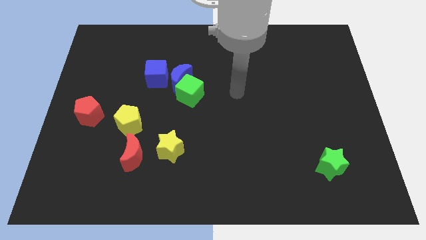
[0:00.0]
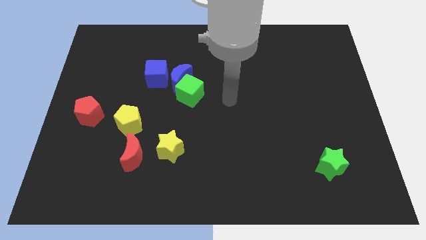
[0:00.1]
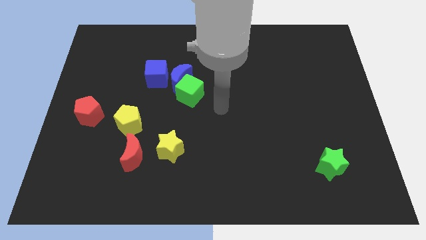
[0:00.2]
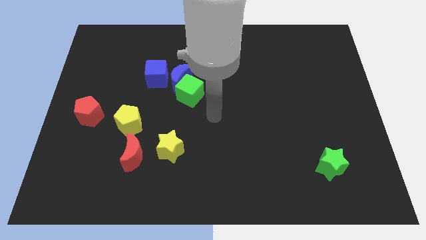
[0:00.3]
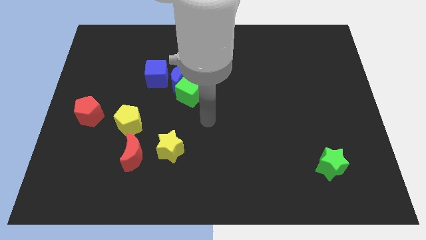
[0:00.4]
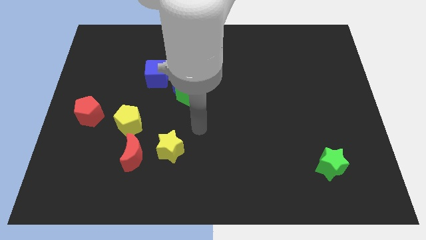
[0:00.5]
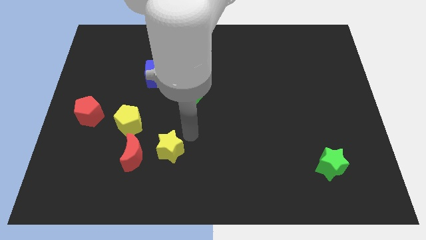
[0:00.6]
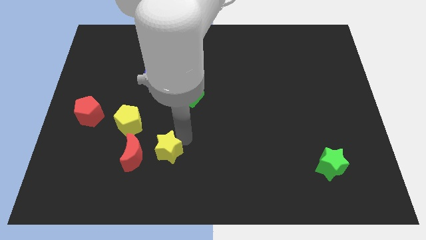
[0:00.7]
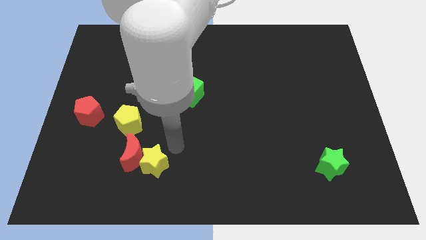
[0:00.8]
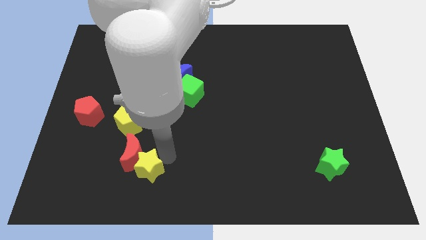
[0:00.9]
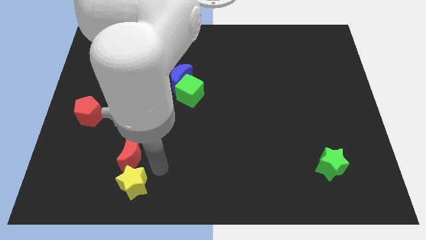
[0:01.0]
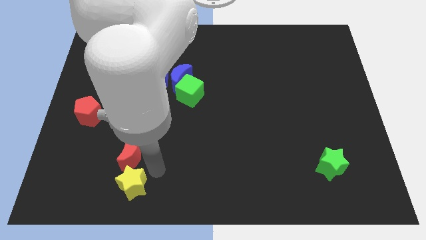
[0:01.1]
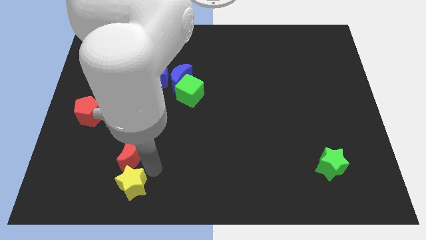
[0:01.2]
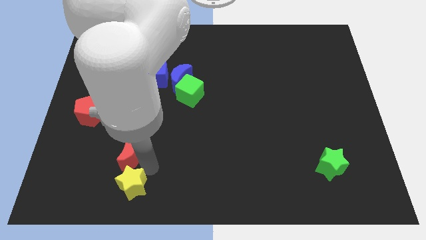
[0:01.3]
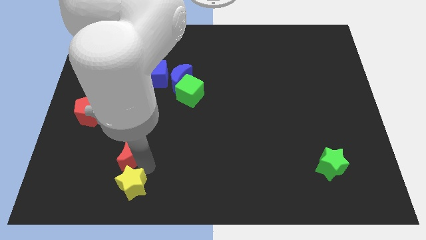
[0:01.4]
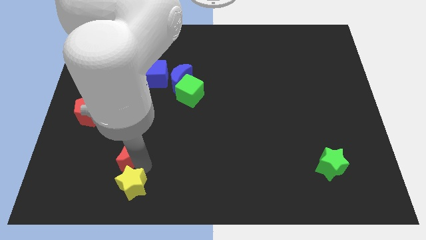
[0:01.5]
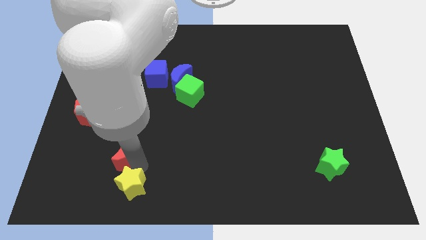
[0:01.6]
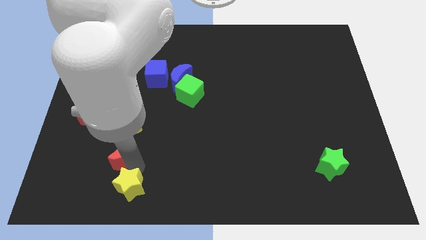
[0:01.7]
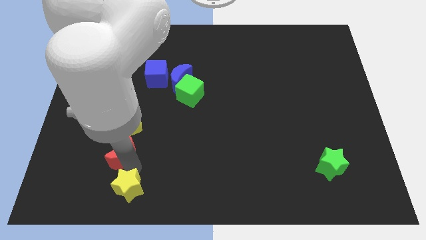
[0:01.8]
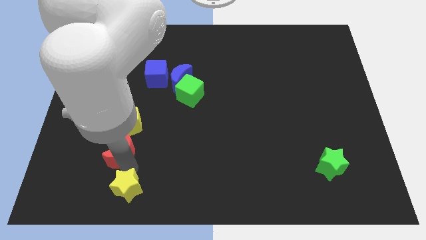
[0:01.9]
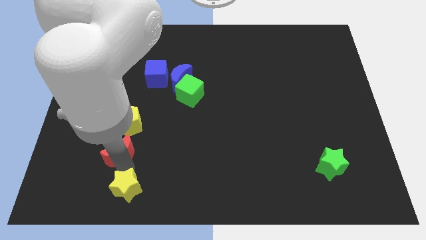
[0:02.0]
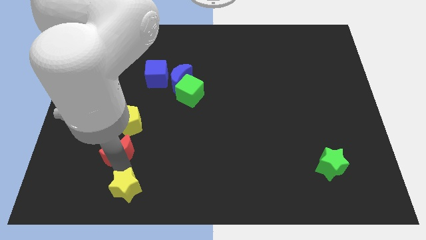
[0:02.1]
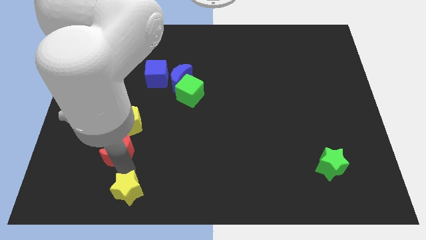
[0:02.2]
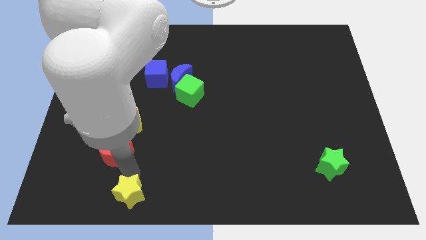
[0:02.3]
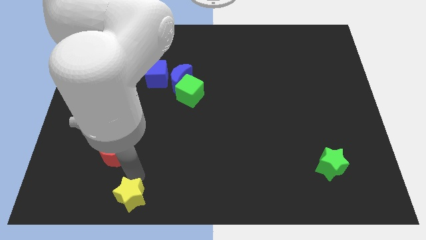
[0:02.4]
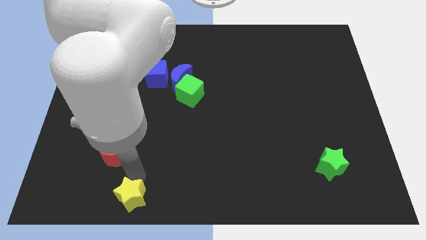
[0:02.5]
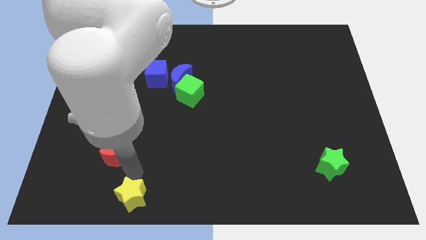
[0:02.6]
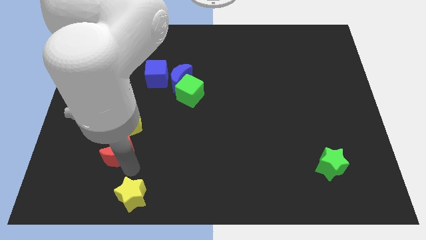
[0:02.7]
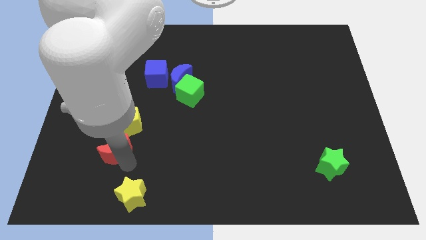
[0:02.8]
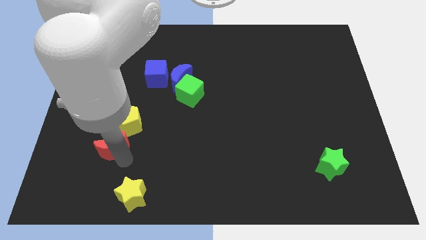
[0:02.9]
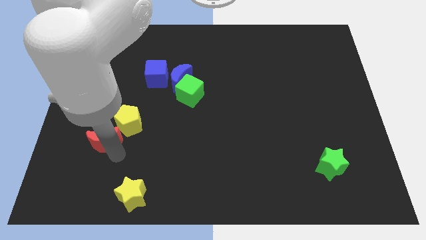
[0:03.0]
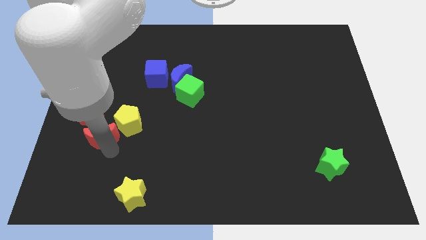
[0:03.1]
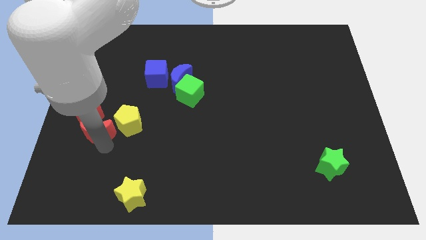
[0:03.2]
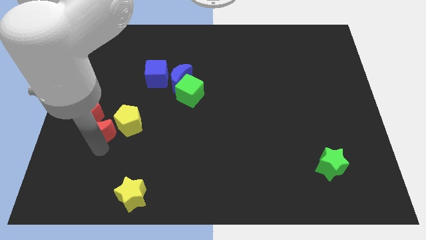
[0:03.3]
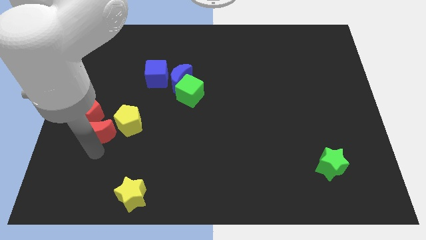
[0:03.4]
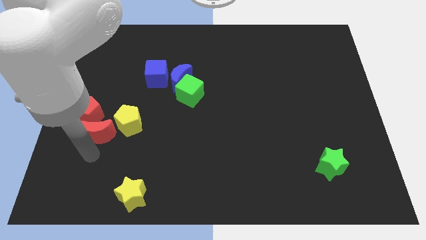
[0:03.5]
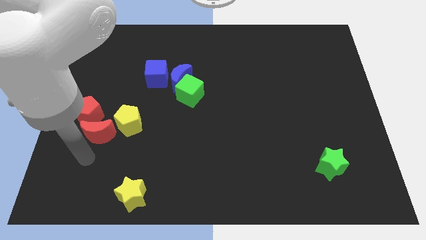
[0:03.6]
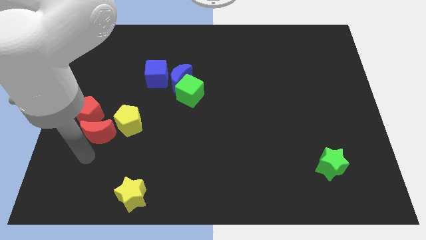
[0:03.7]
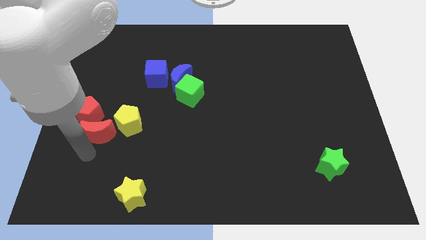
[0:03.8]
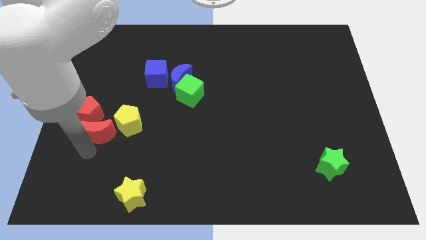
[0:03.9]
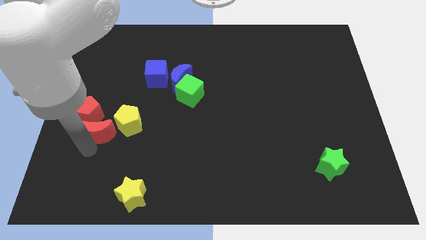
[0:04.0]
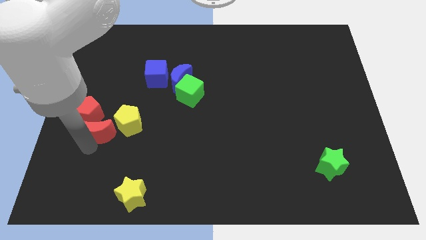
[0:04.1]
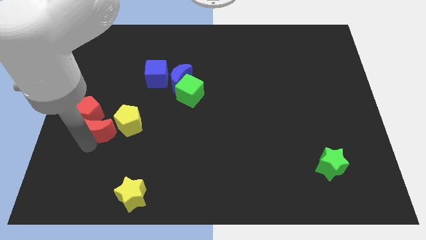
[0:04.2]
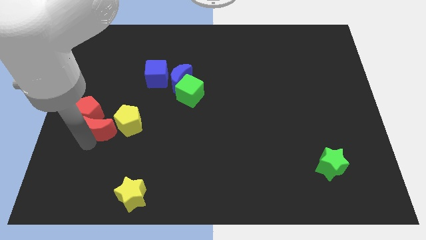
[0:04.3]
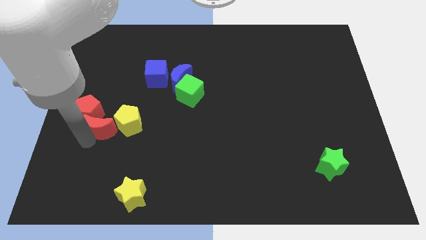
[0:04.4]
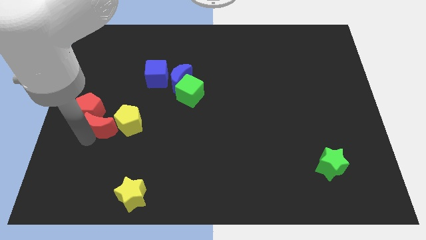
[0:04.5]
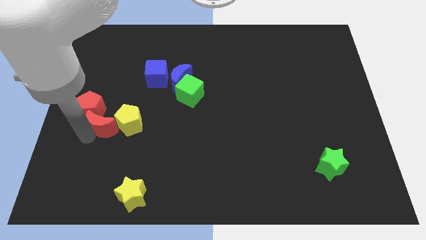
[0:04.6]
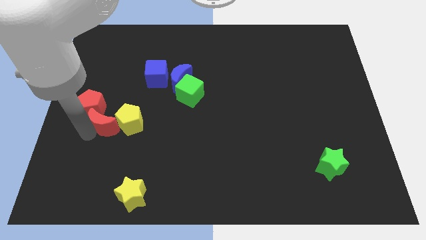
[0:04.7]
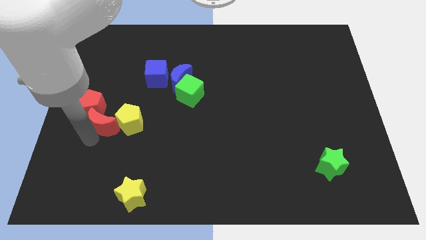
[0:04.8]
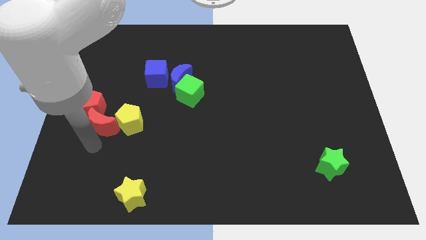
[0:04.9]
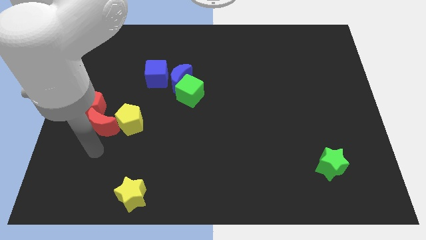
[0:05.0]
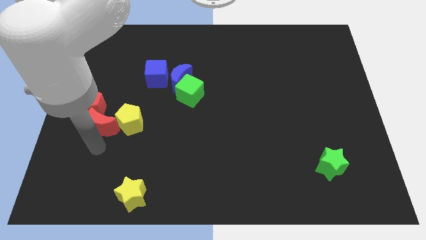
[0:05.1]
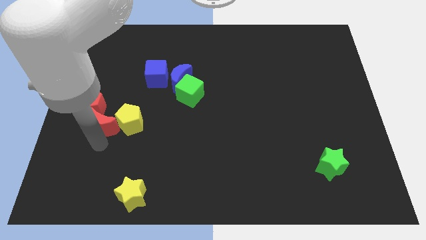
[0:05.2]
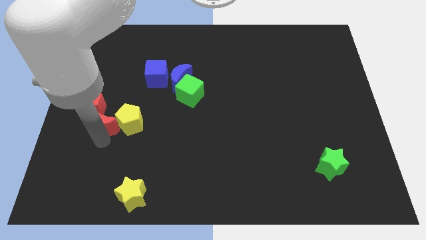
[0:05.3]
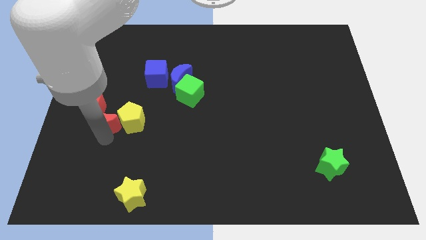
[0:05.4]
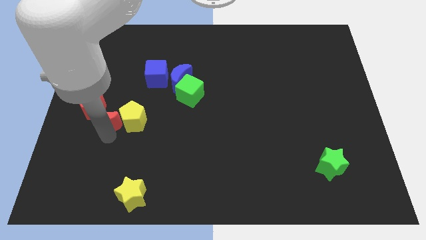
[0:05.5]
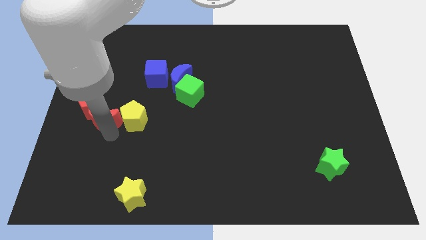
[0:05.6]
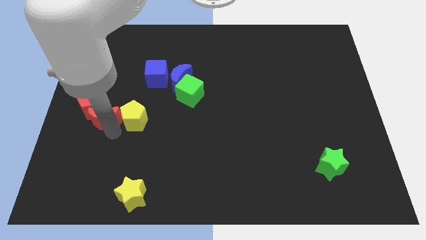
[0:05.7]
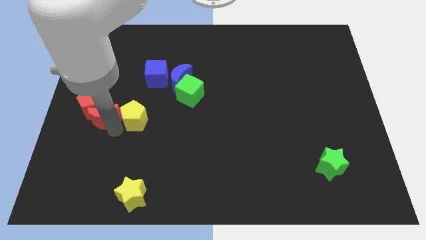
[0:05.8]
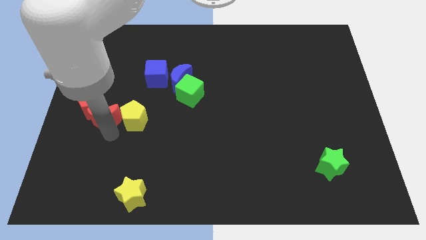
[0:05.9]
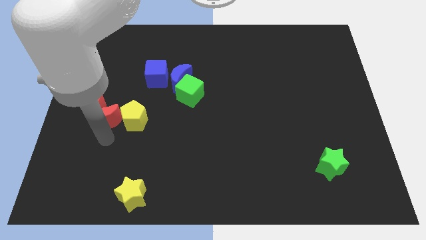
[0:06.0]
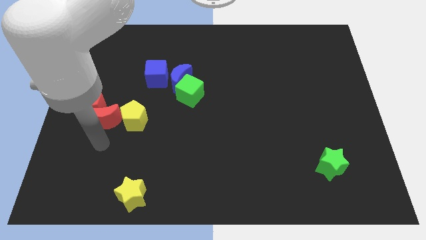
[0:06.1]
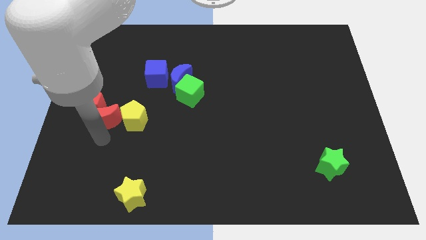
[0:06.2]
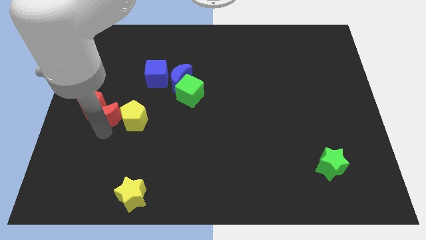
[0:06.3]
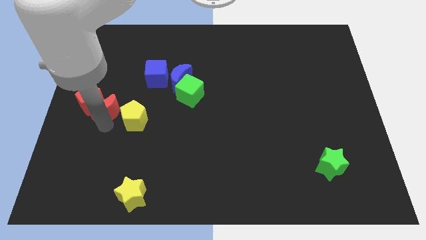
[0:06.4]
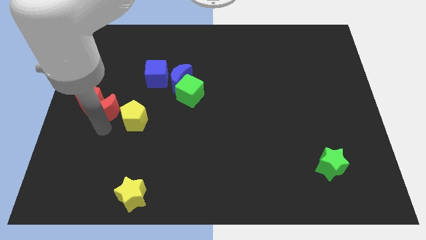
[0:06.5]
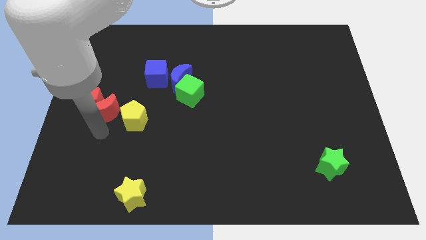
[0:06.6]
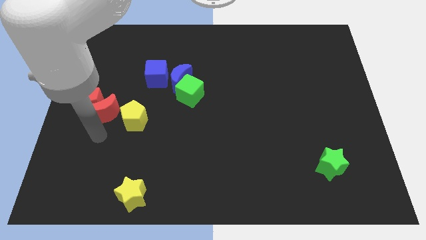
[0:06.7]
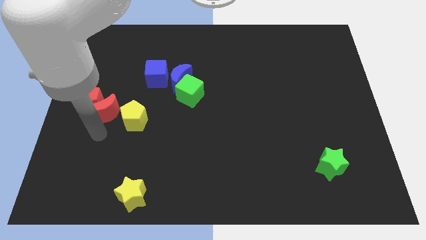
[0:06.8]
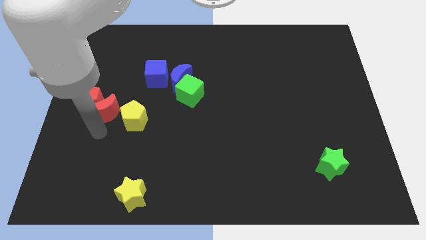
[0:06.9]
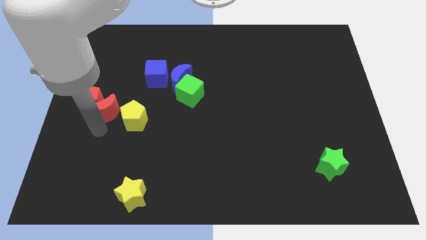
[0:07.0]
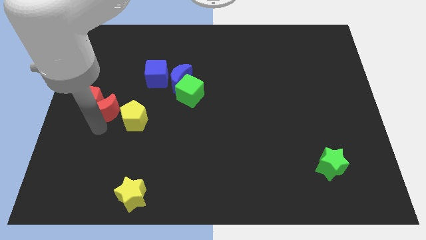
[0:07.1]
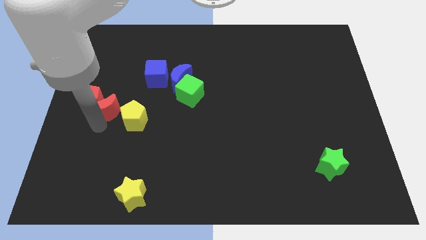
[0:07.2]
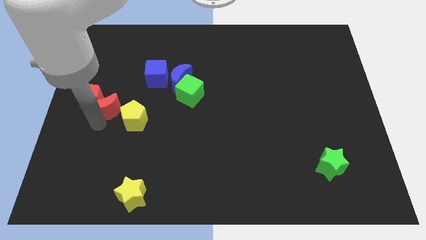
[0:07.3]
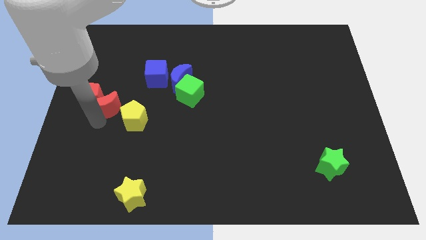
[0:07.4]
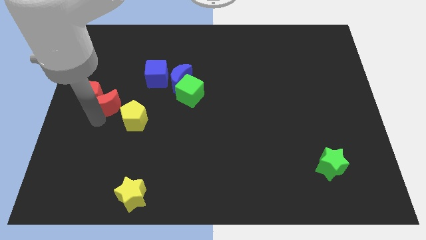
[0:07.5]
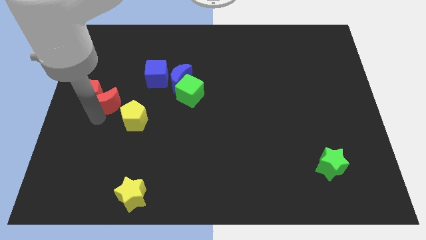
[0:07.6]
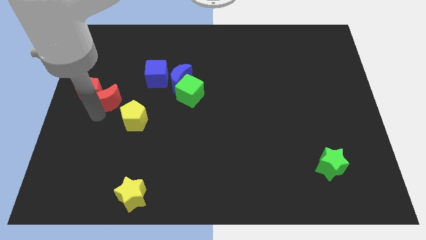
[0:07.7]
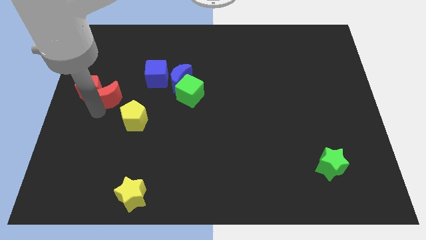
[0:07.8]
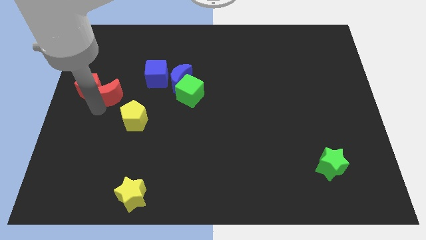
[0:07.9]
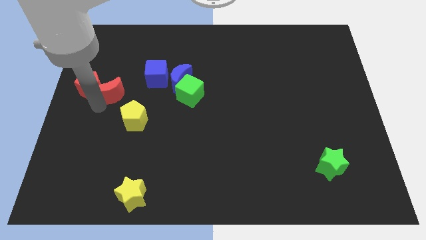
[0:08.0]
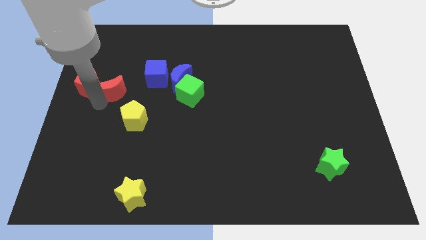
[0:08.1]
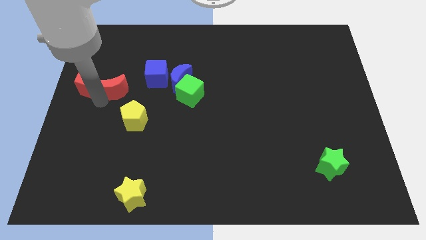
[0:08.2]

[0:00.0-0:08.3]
move the red moon to the left side of the blue cube
